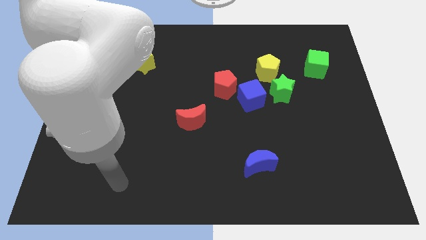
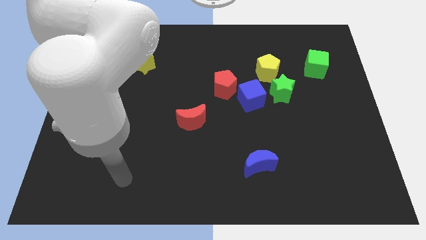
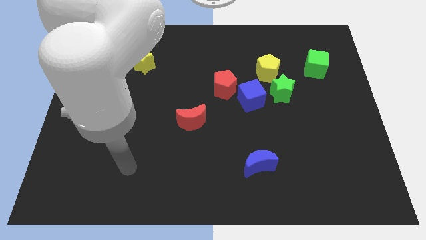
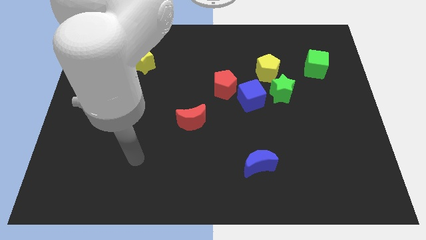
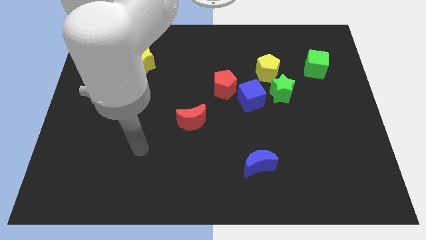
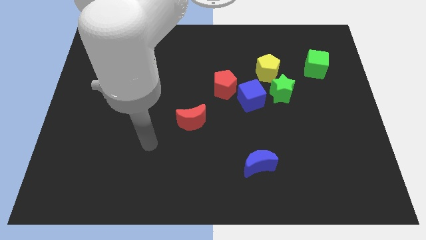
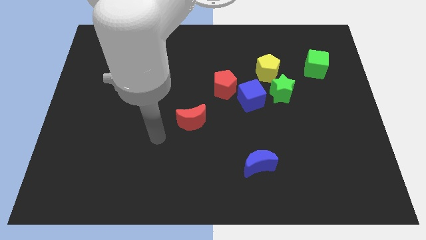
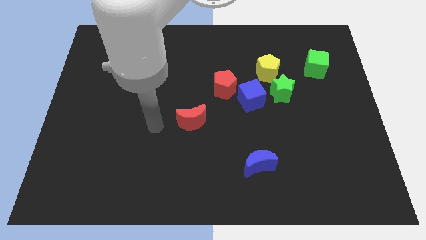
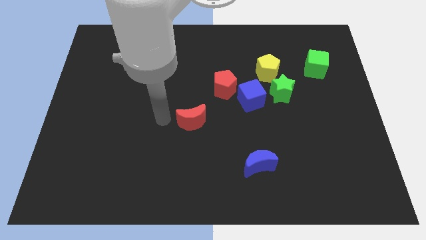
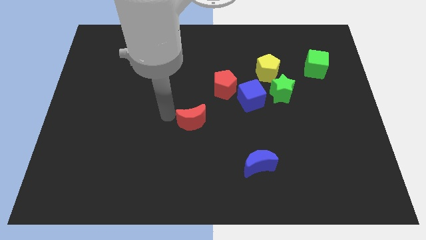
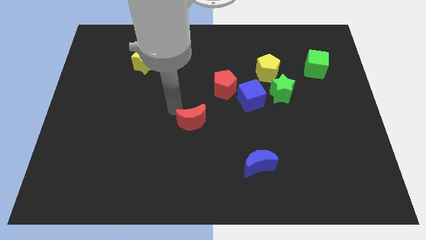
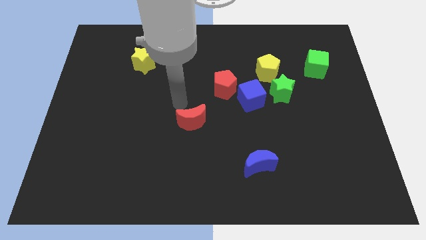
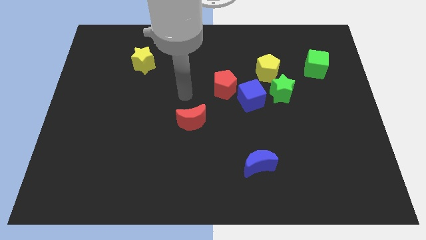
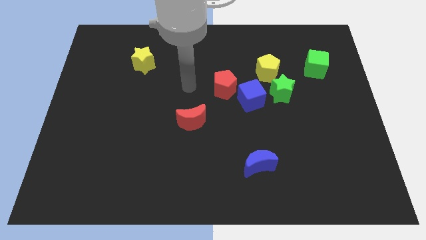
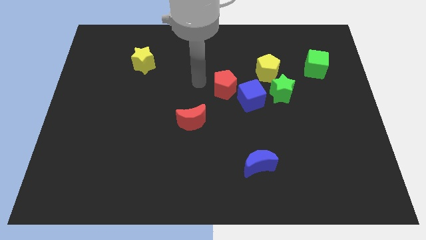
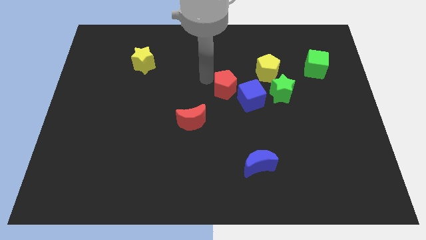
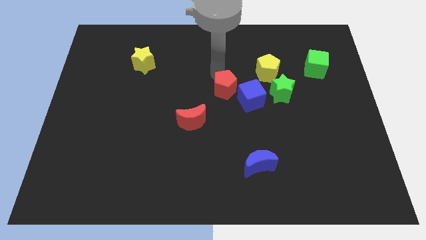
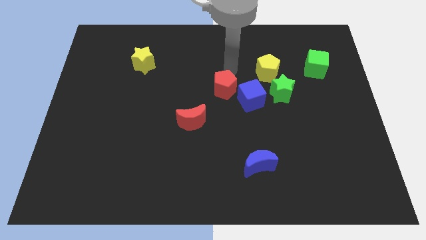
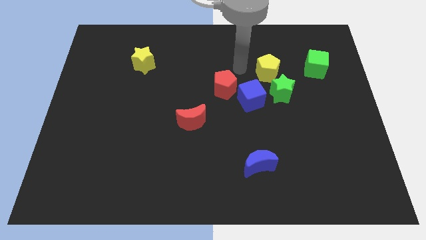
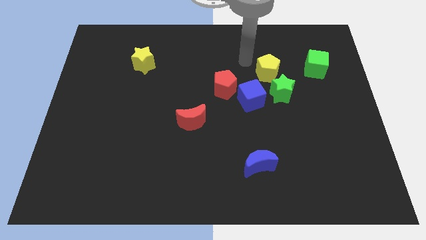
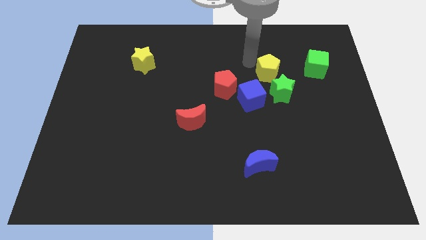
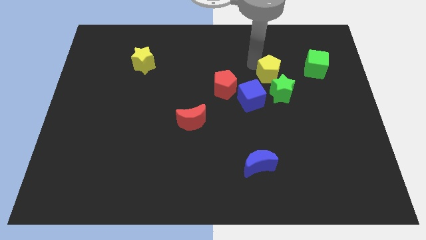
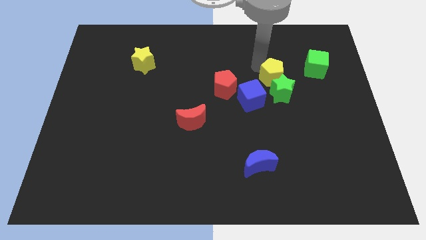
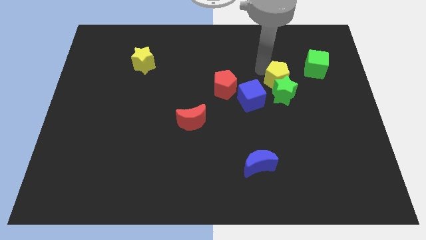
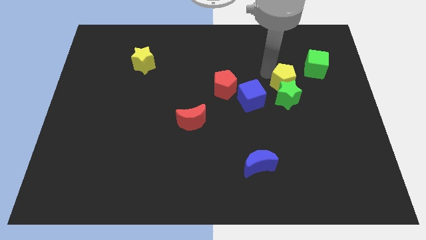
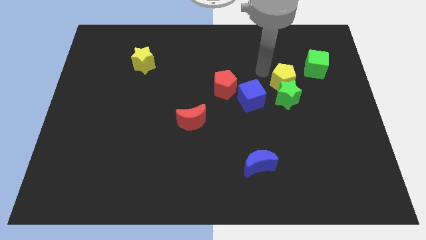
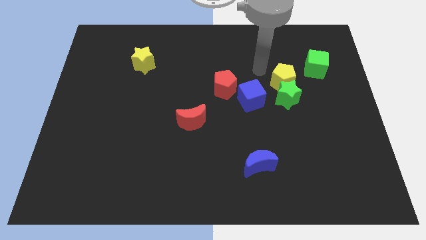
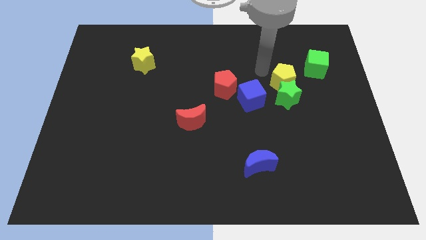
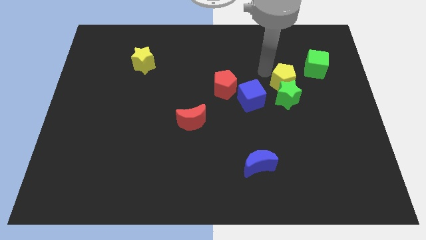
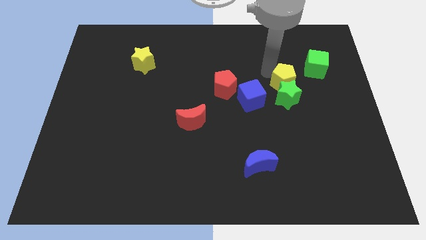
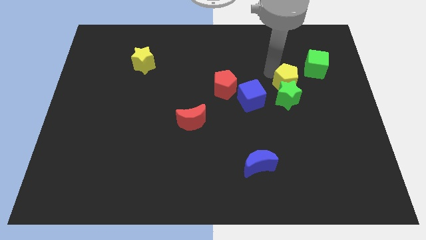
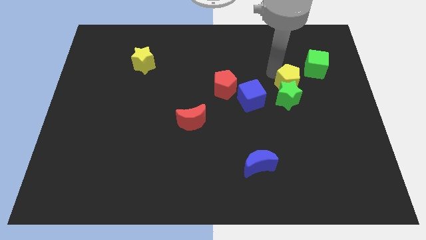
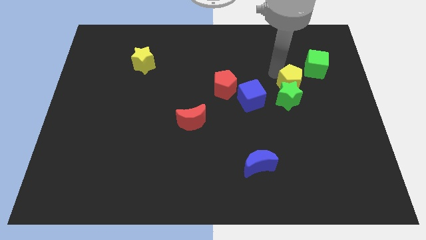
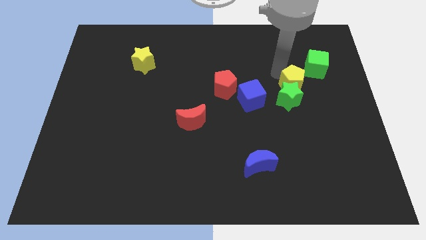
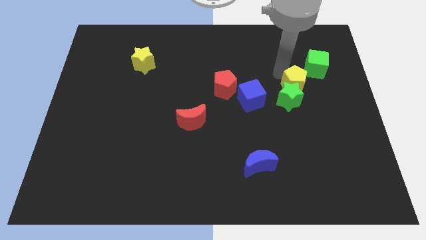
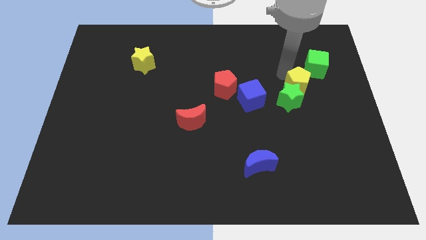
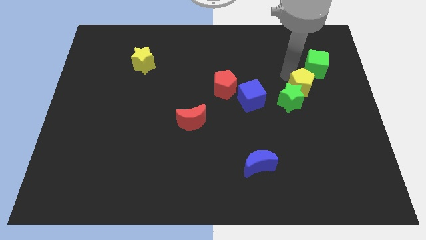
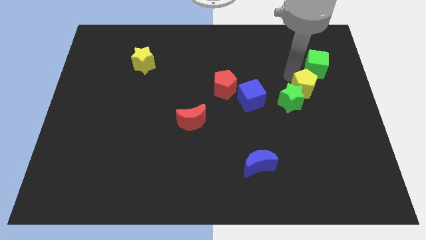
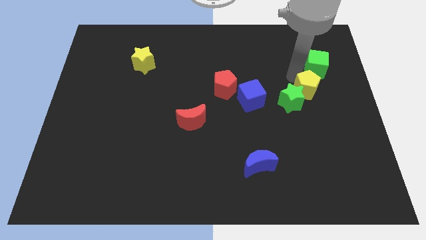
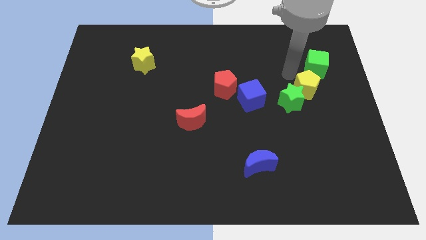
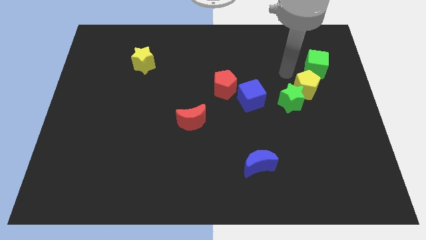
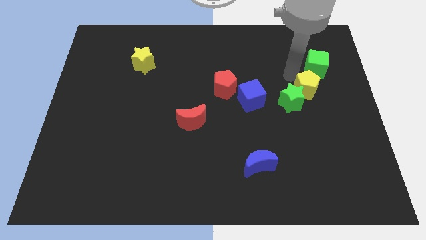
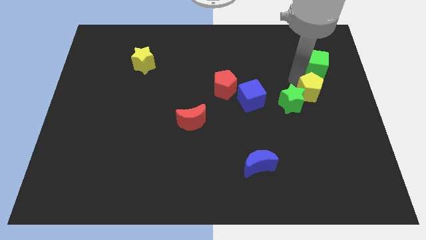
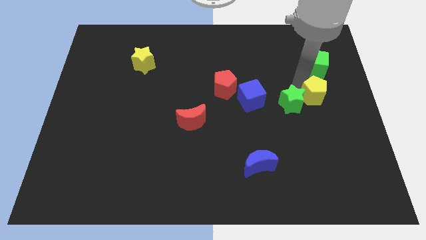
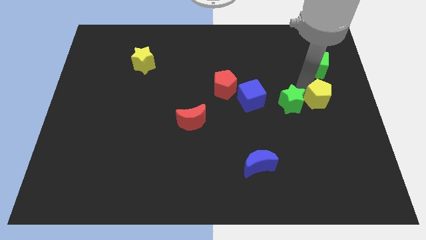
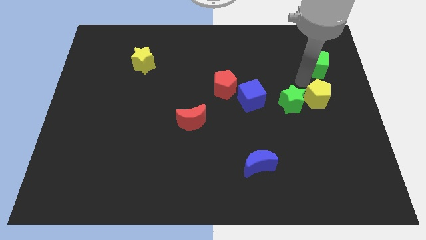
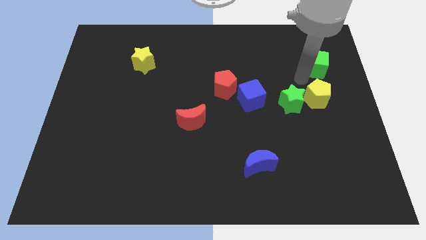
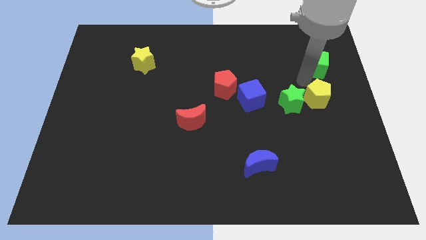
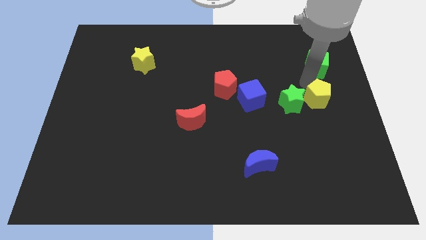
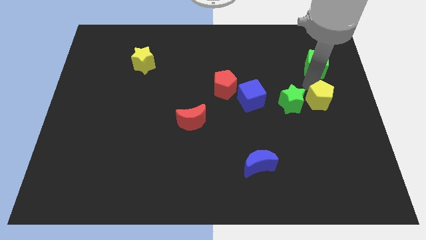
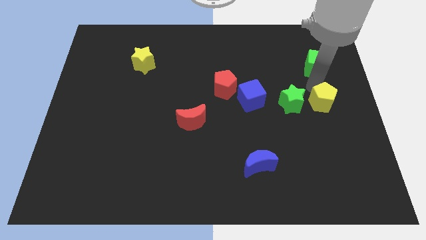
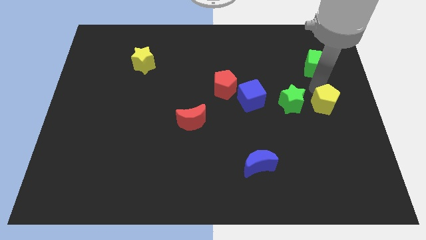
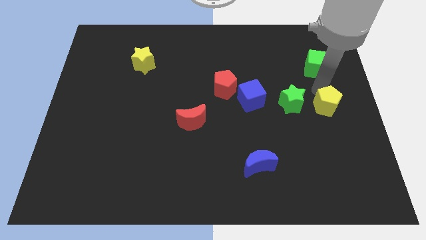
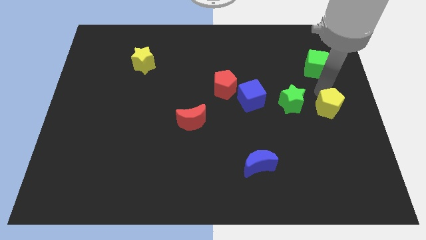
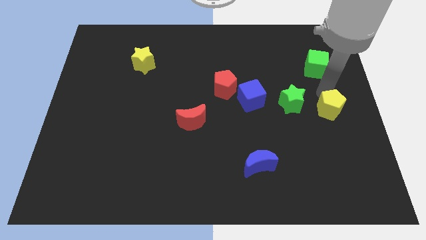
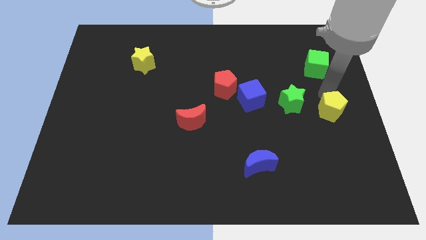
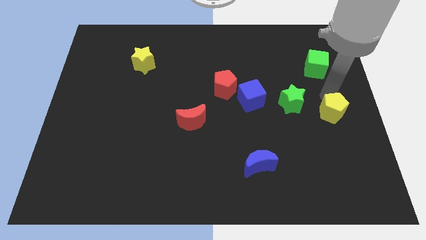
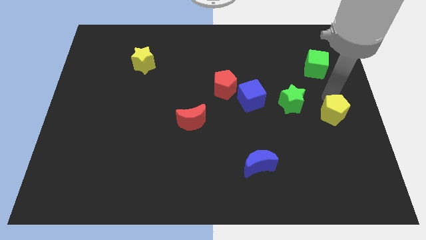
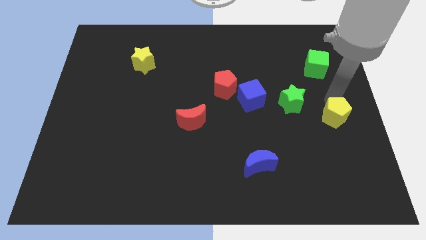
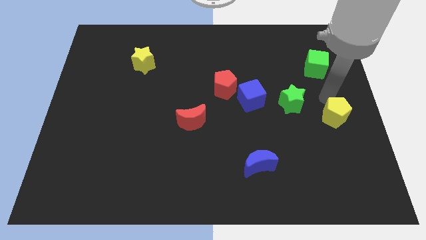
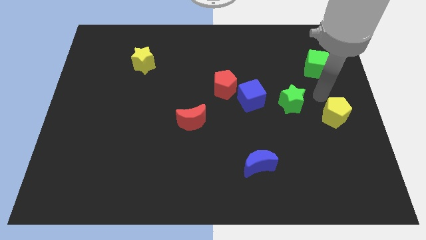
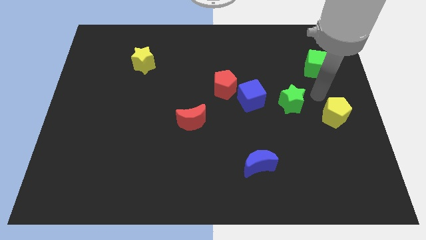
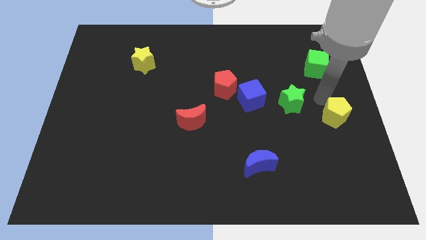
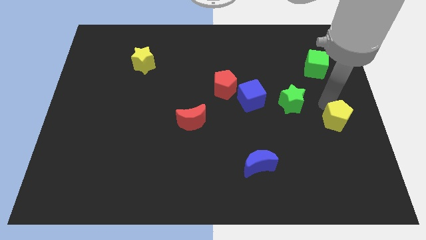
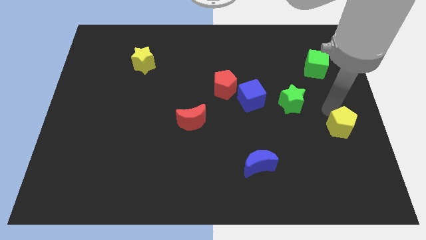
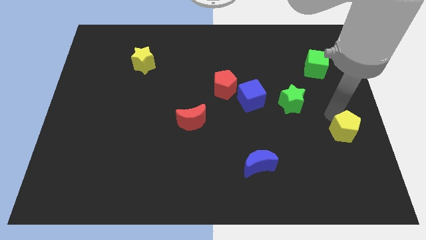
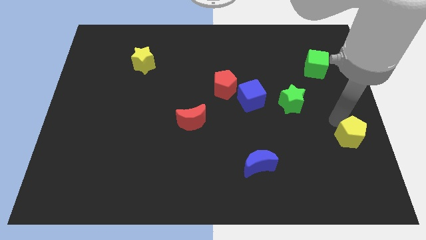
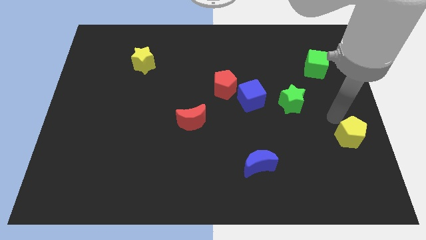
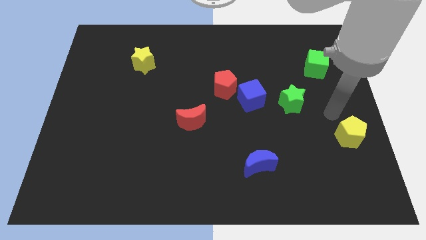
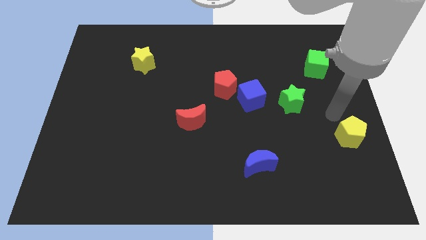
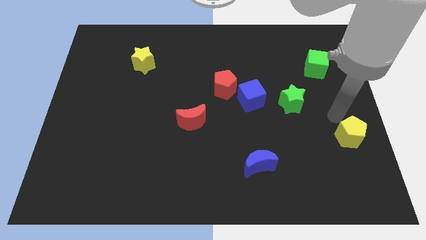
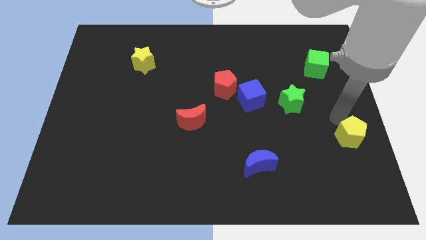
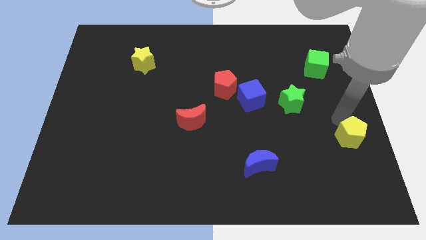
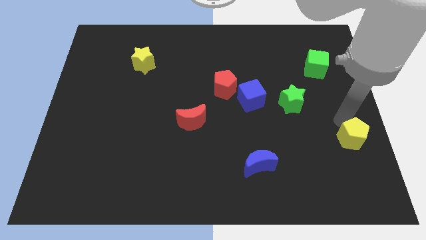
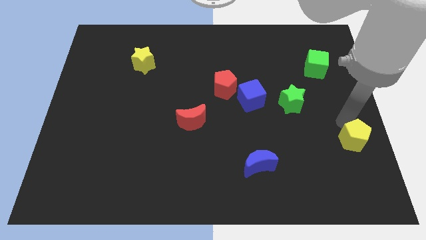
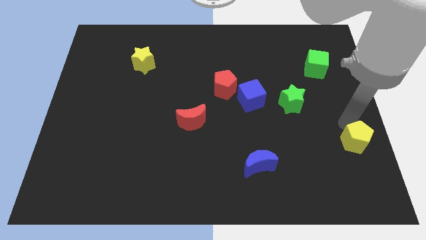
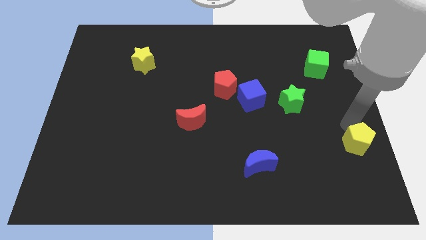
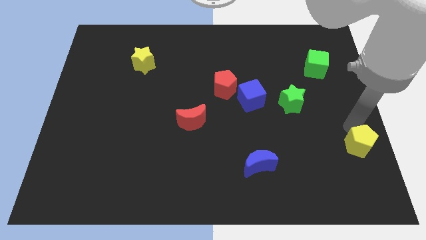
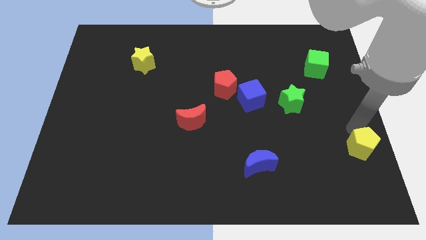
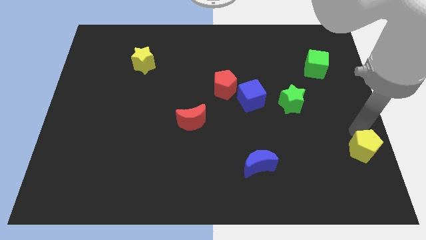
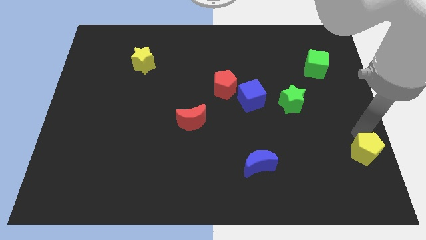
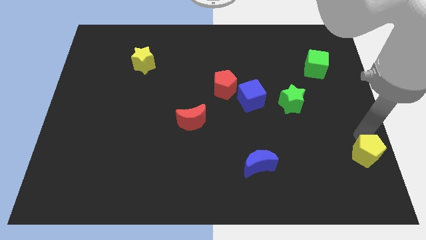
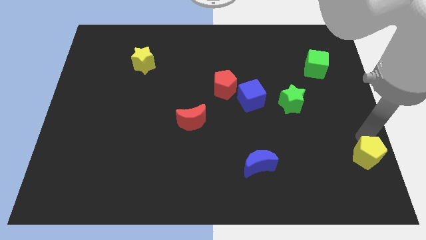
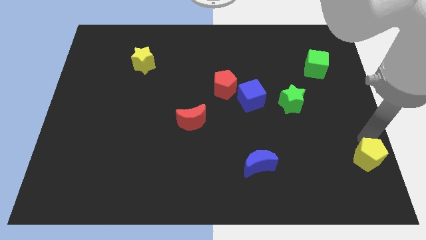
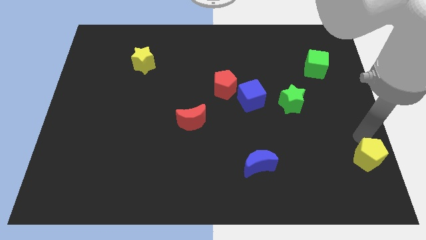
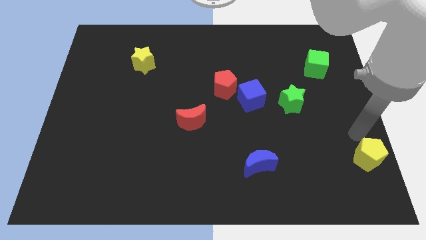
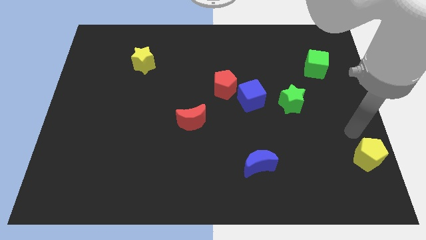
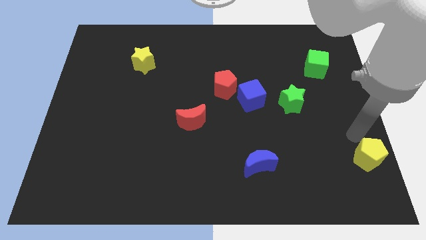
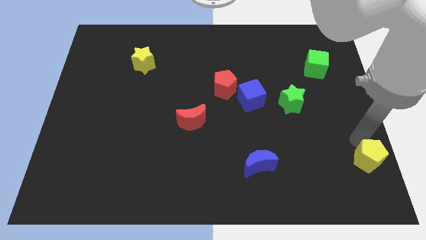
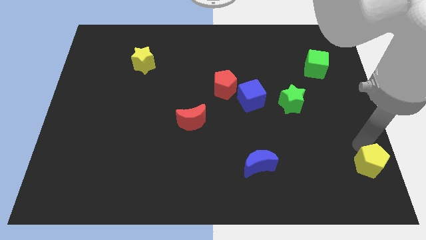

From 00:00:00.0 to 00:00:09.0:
push the yellow pentagon to the bottom right
